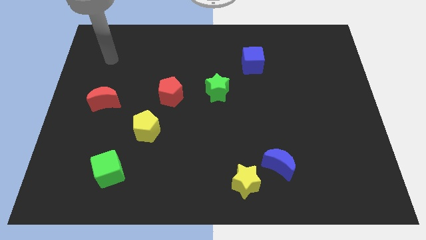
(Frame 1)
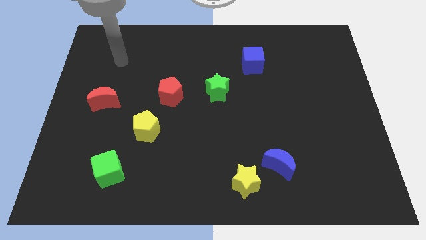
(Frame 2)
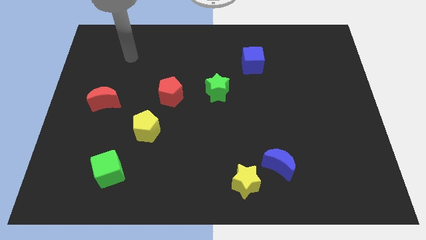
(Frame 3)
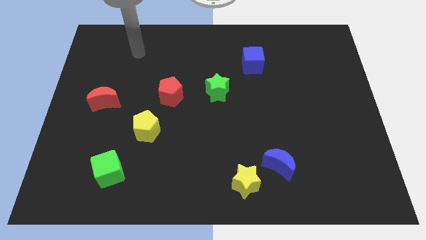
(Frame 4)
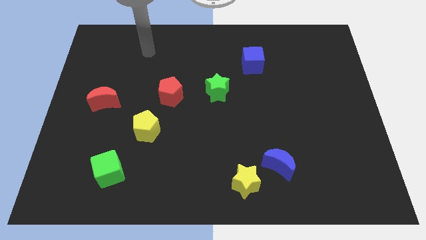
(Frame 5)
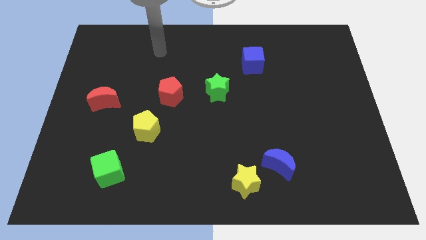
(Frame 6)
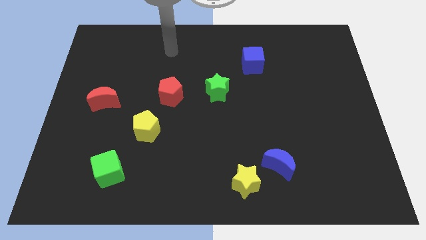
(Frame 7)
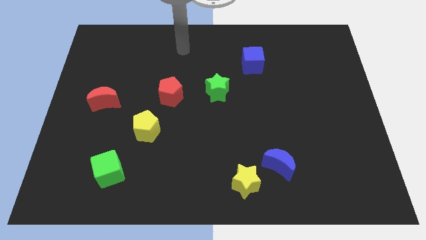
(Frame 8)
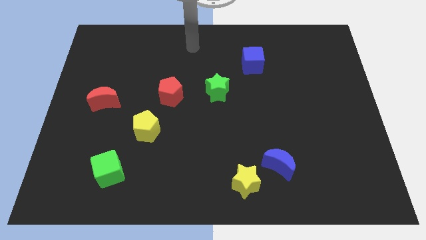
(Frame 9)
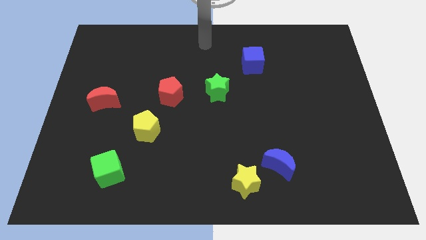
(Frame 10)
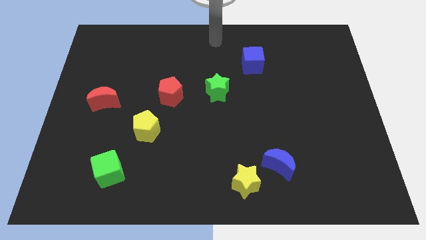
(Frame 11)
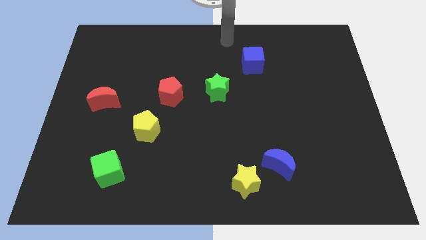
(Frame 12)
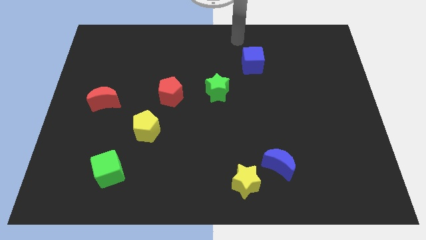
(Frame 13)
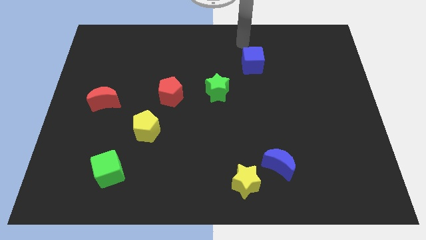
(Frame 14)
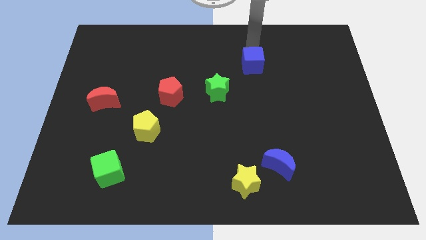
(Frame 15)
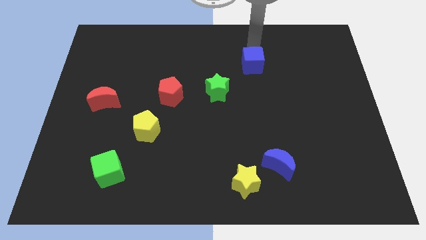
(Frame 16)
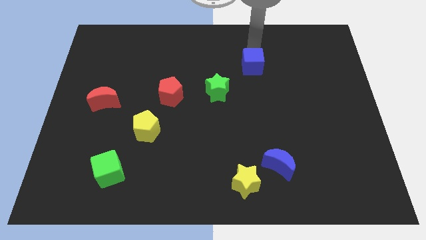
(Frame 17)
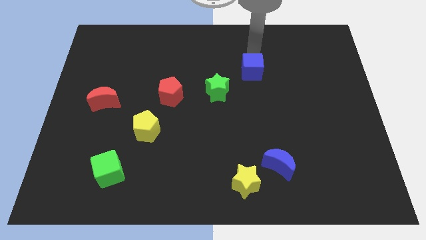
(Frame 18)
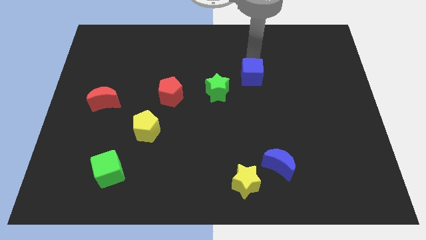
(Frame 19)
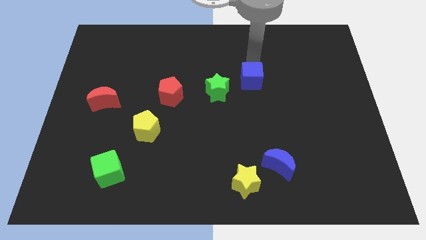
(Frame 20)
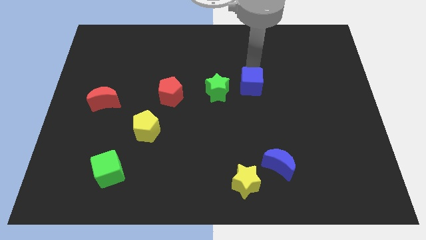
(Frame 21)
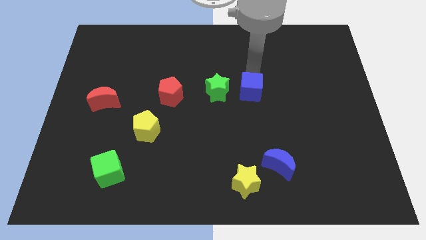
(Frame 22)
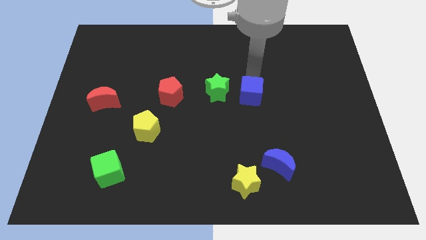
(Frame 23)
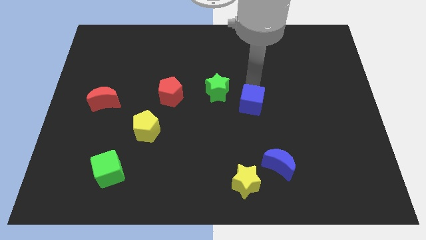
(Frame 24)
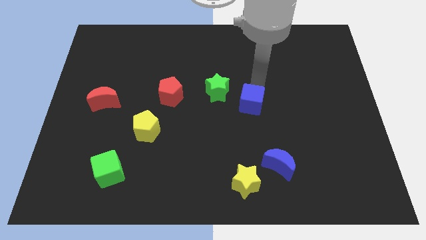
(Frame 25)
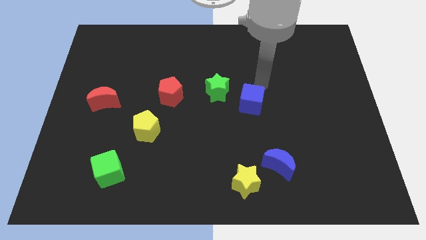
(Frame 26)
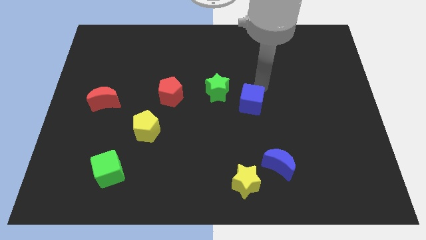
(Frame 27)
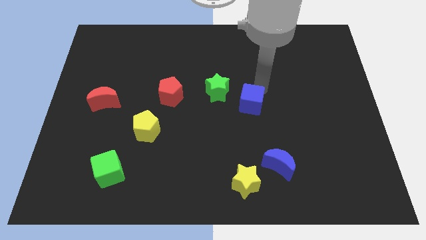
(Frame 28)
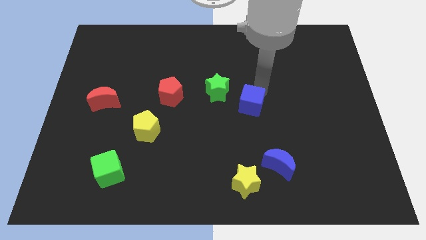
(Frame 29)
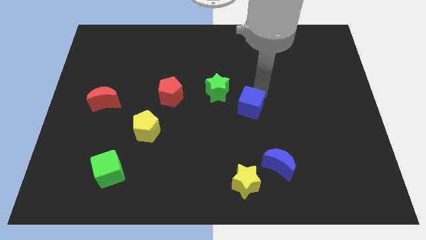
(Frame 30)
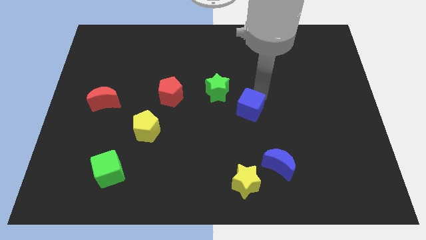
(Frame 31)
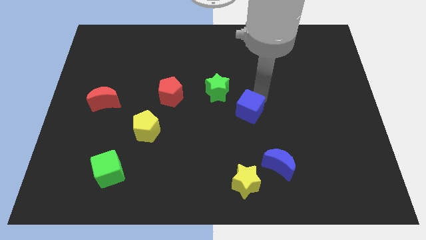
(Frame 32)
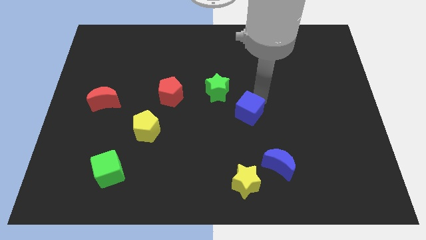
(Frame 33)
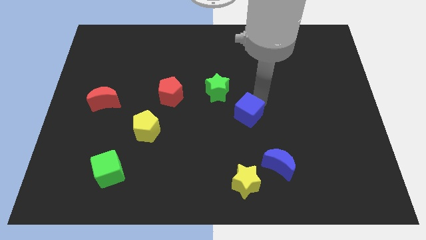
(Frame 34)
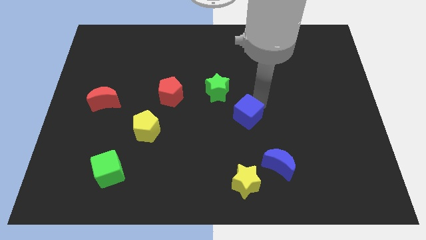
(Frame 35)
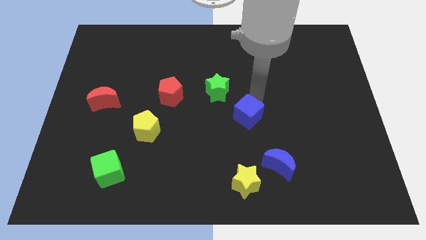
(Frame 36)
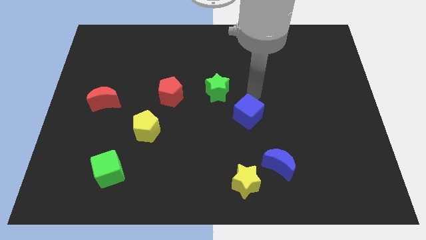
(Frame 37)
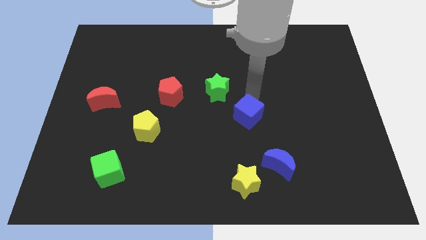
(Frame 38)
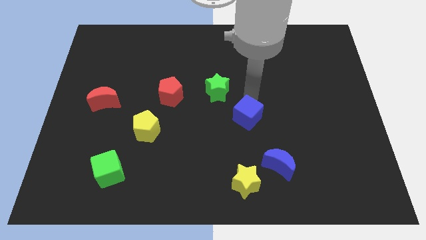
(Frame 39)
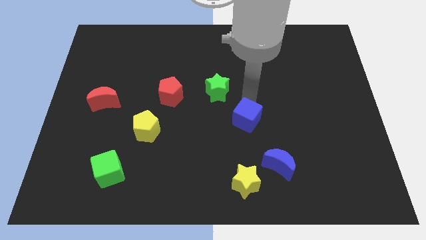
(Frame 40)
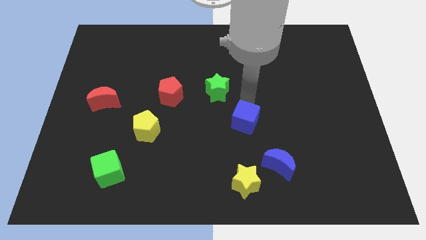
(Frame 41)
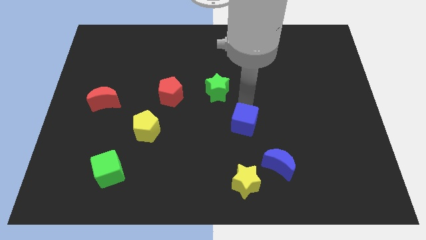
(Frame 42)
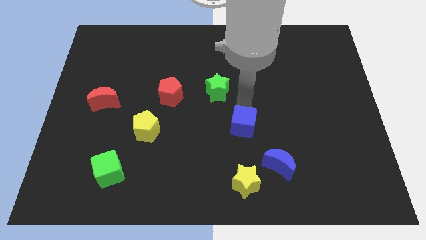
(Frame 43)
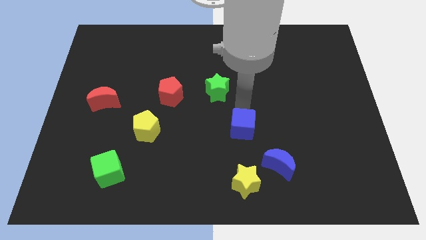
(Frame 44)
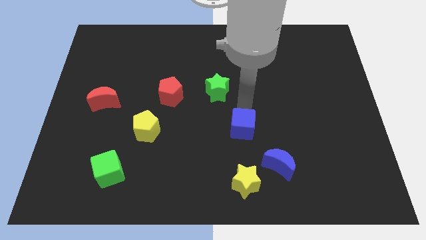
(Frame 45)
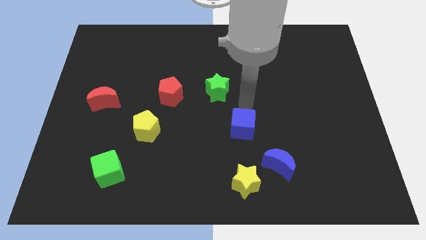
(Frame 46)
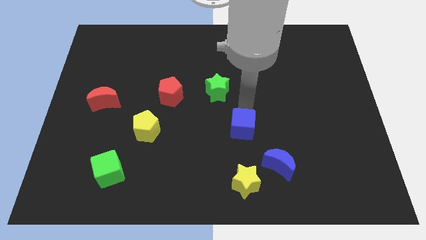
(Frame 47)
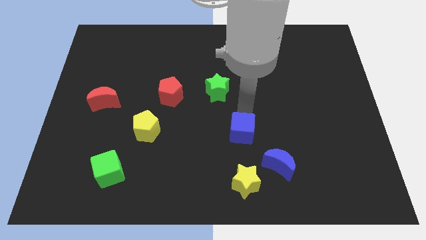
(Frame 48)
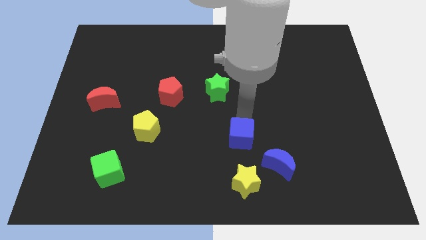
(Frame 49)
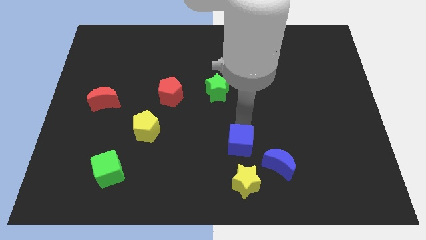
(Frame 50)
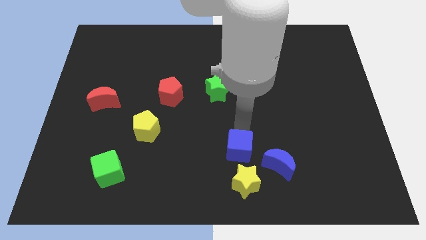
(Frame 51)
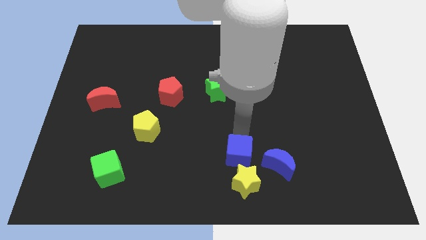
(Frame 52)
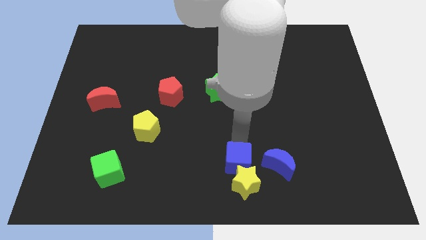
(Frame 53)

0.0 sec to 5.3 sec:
put the blue cube to the yellow star

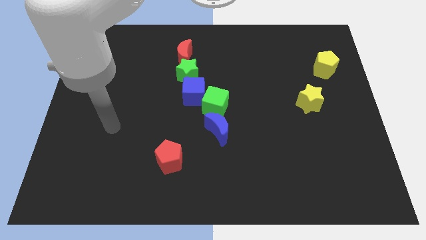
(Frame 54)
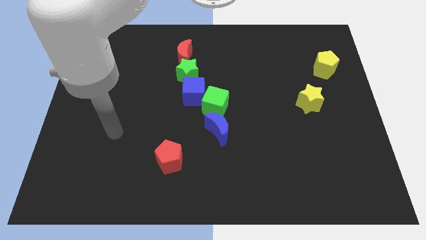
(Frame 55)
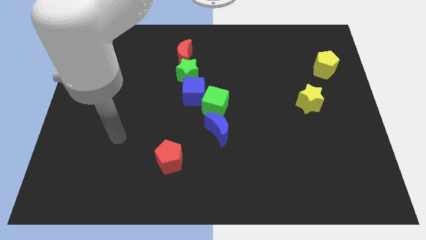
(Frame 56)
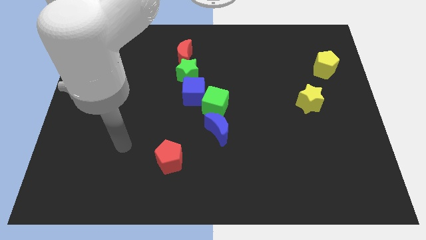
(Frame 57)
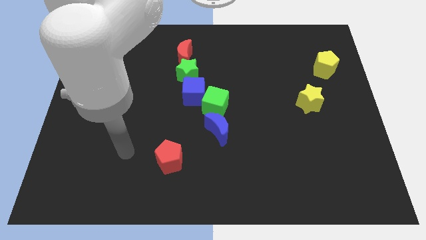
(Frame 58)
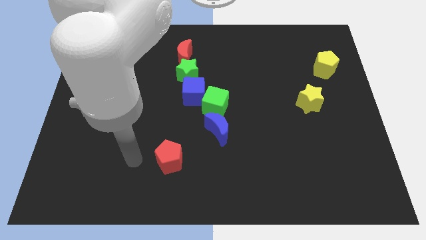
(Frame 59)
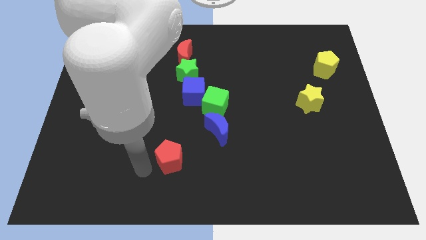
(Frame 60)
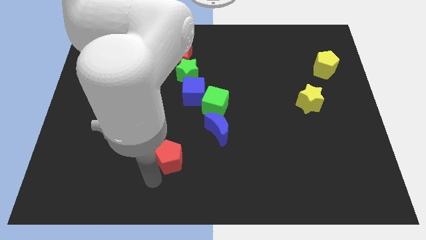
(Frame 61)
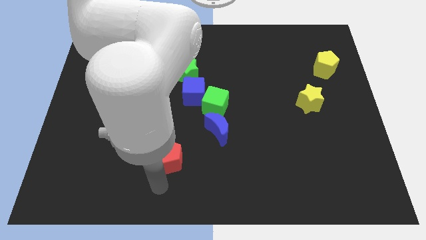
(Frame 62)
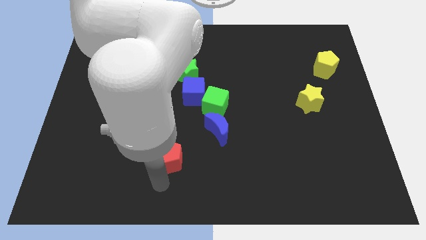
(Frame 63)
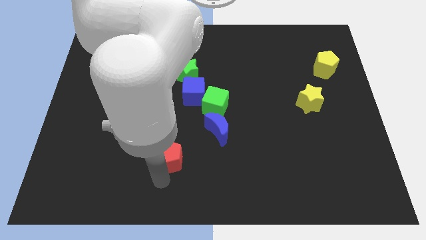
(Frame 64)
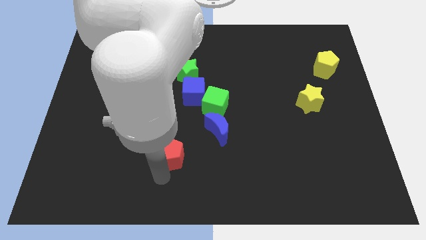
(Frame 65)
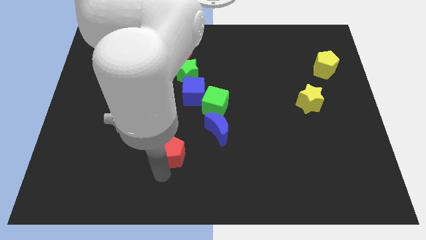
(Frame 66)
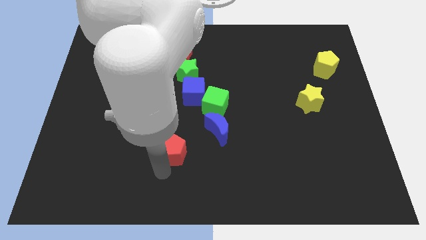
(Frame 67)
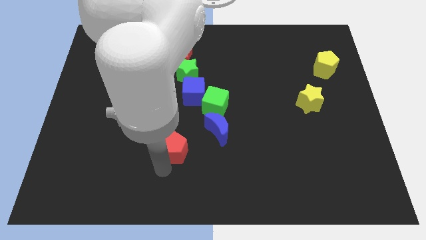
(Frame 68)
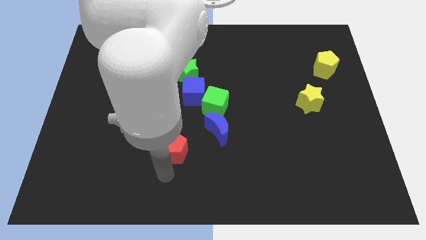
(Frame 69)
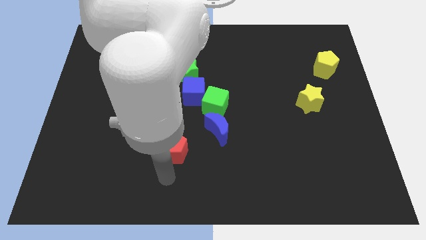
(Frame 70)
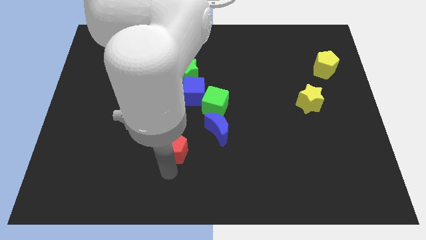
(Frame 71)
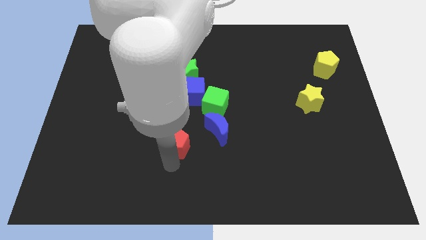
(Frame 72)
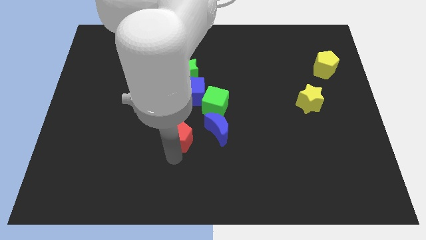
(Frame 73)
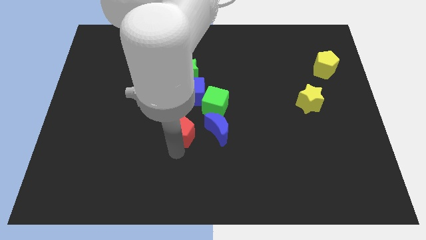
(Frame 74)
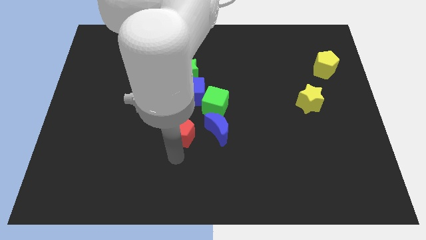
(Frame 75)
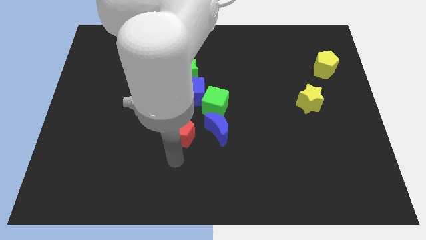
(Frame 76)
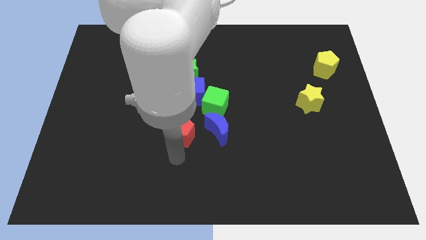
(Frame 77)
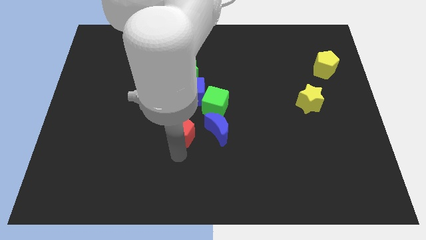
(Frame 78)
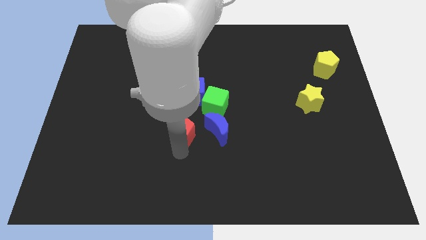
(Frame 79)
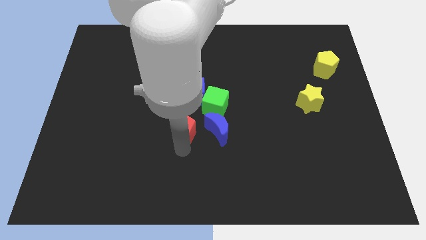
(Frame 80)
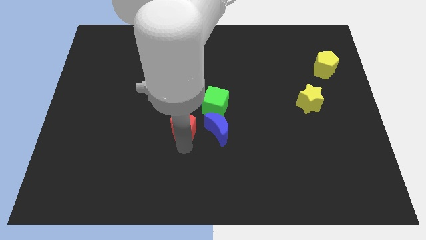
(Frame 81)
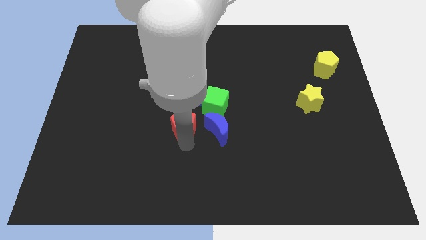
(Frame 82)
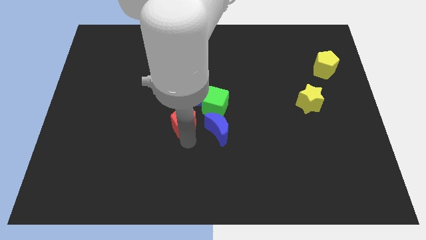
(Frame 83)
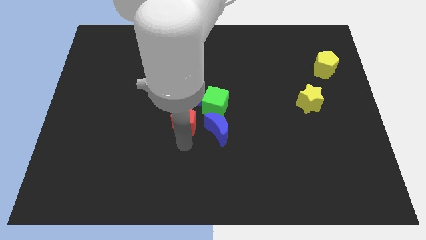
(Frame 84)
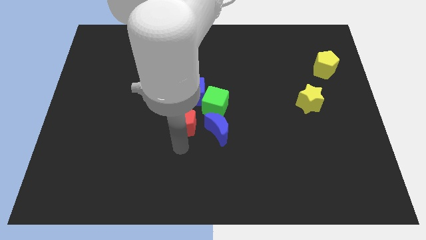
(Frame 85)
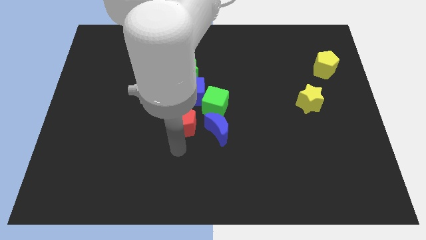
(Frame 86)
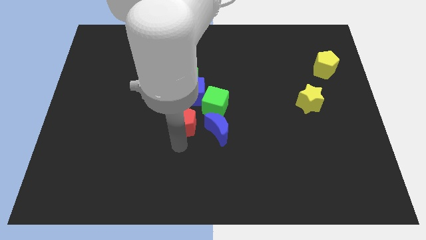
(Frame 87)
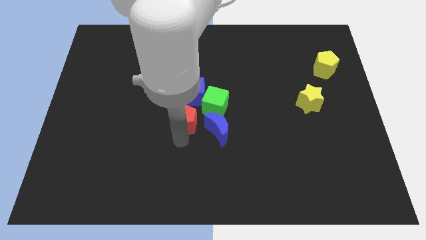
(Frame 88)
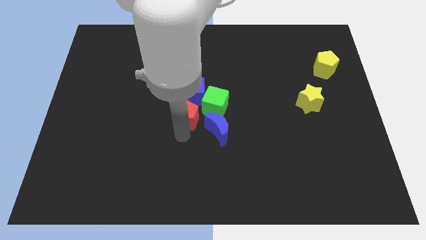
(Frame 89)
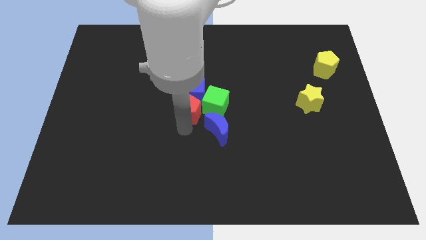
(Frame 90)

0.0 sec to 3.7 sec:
move the red pentagon towards the blue cube
